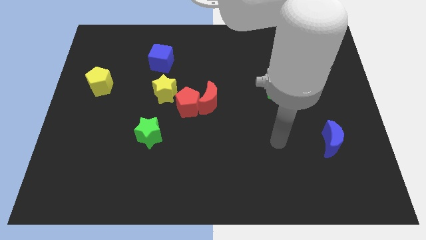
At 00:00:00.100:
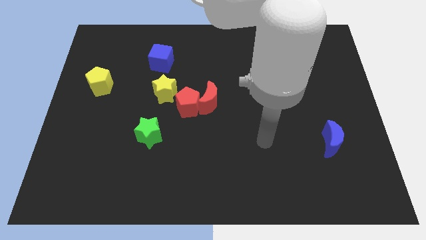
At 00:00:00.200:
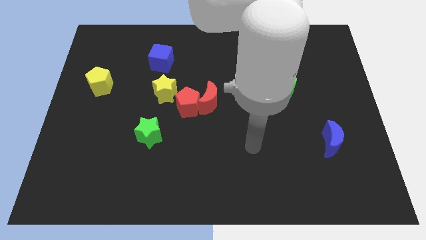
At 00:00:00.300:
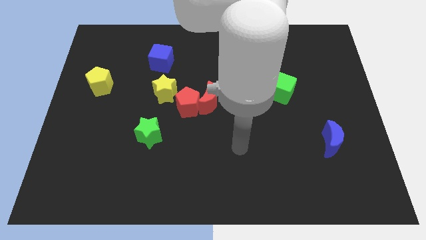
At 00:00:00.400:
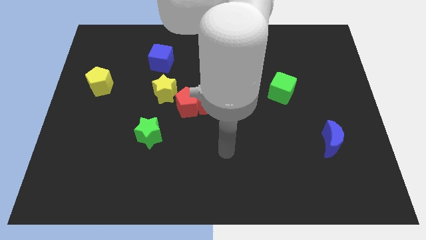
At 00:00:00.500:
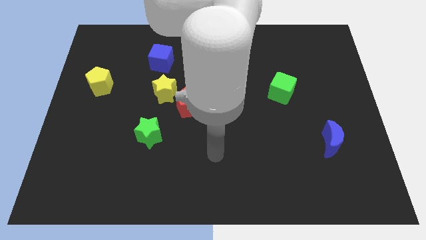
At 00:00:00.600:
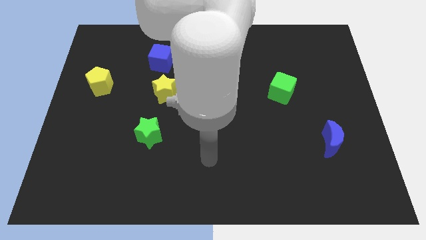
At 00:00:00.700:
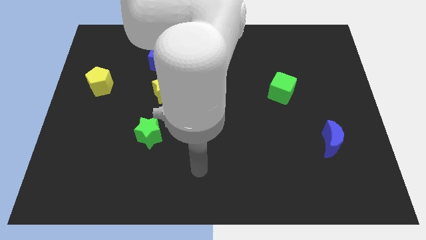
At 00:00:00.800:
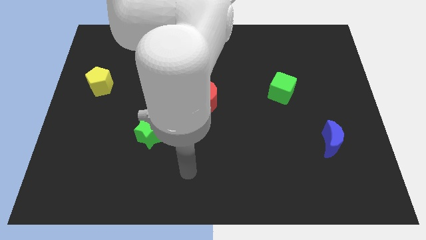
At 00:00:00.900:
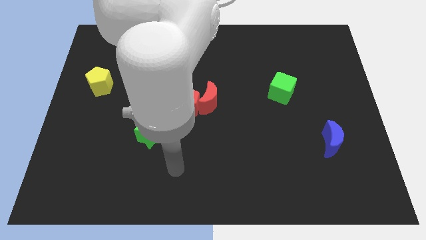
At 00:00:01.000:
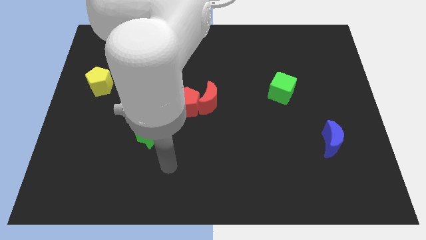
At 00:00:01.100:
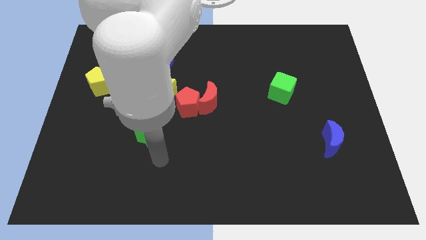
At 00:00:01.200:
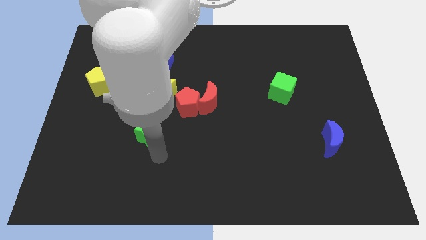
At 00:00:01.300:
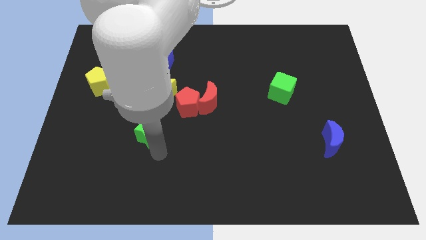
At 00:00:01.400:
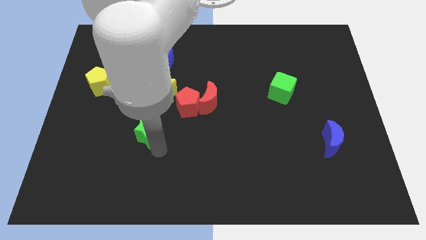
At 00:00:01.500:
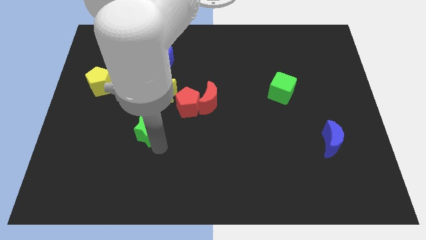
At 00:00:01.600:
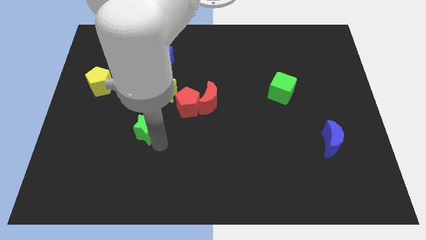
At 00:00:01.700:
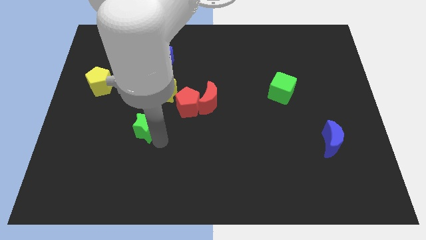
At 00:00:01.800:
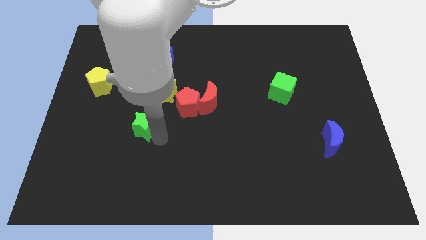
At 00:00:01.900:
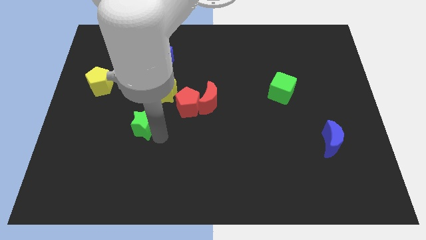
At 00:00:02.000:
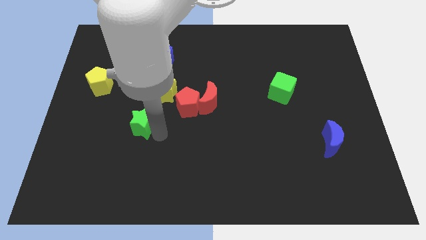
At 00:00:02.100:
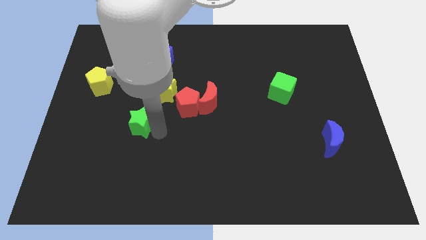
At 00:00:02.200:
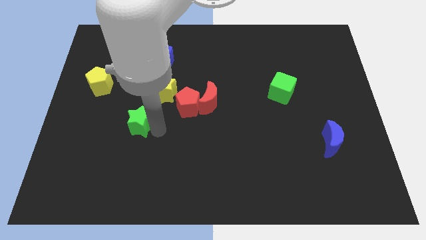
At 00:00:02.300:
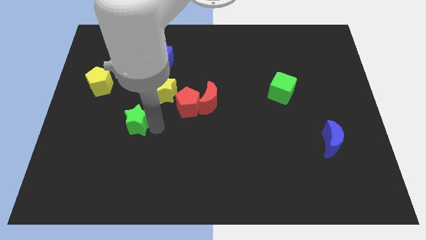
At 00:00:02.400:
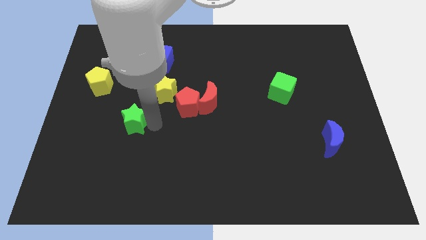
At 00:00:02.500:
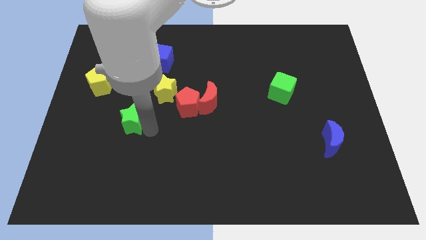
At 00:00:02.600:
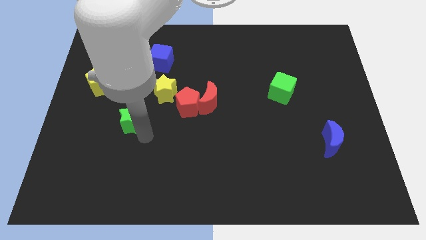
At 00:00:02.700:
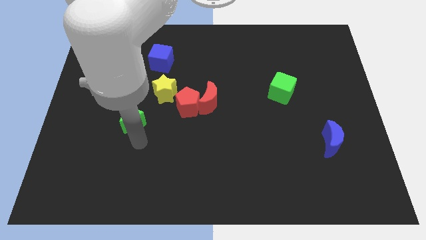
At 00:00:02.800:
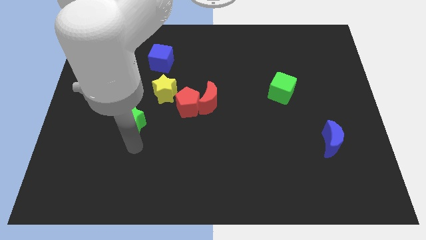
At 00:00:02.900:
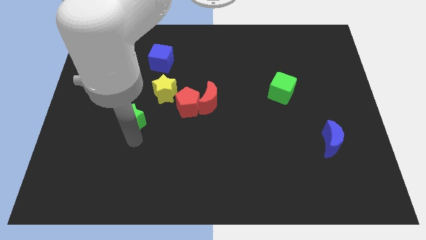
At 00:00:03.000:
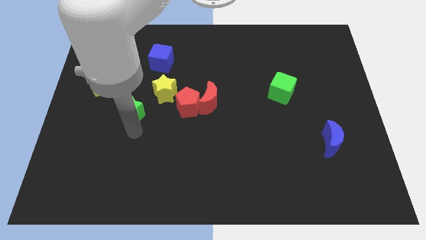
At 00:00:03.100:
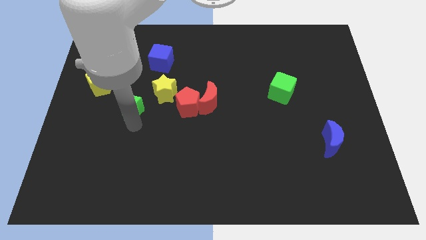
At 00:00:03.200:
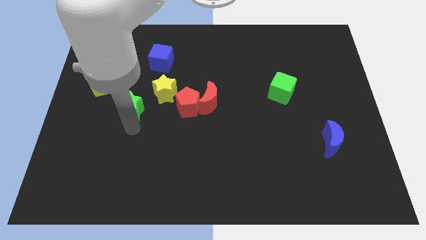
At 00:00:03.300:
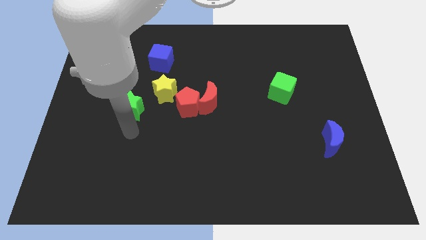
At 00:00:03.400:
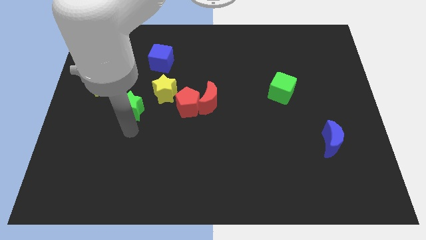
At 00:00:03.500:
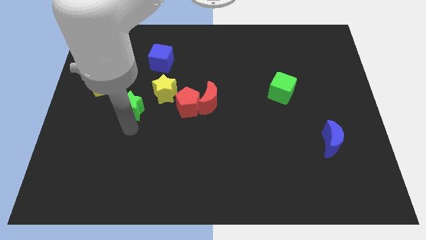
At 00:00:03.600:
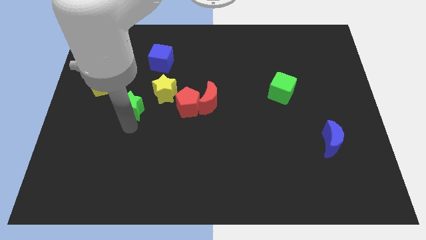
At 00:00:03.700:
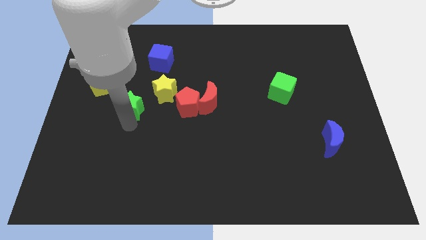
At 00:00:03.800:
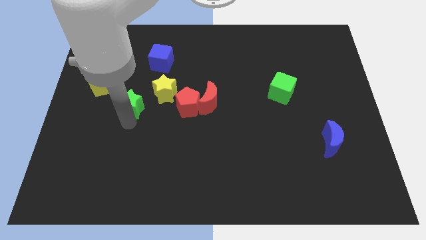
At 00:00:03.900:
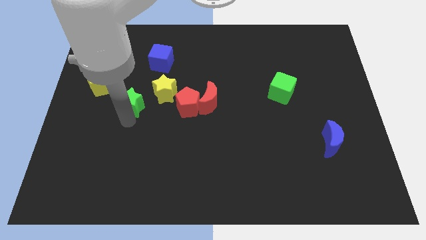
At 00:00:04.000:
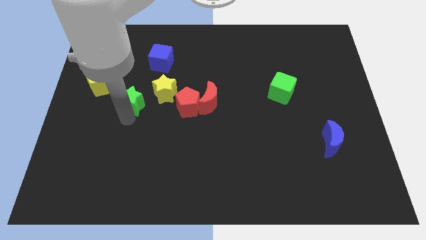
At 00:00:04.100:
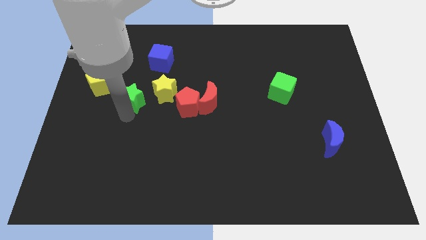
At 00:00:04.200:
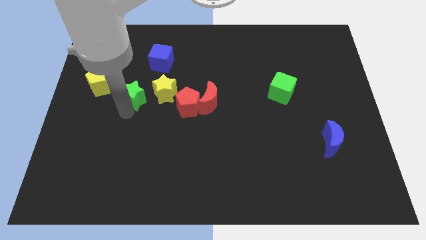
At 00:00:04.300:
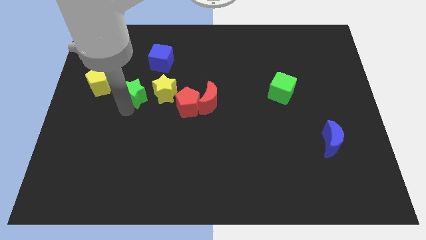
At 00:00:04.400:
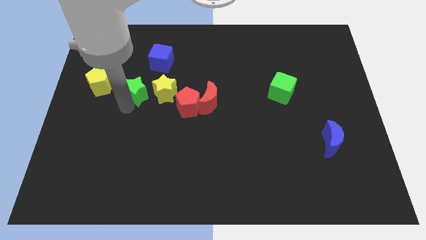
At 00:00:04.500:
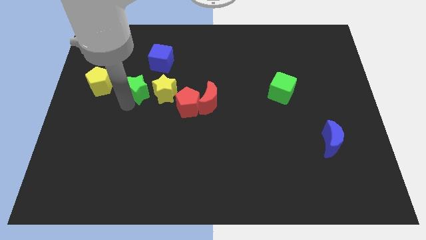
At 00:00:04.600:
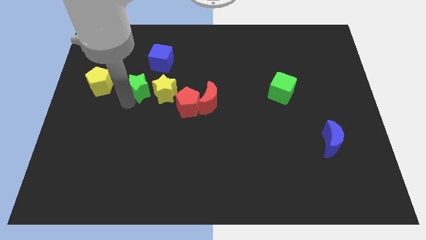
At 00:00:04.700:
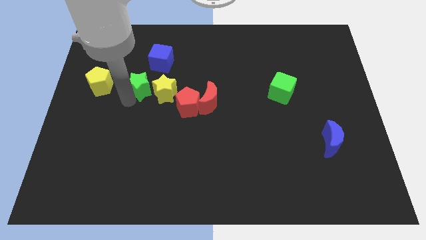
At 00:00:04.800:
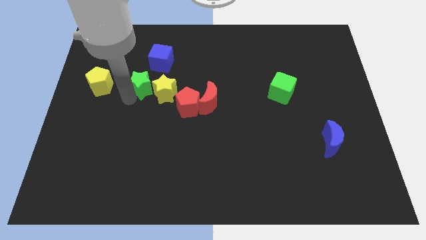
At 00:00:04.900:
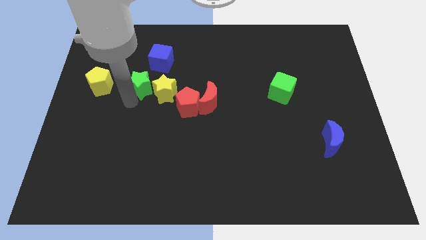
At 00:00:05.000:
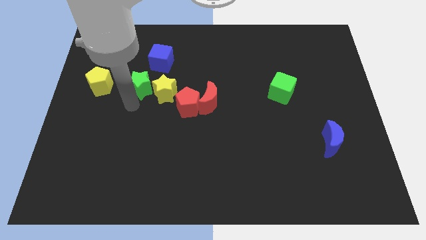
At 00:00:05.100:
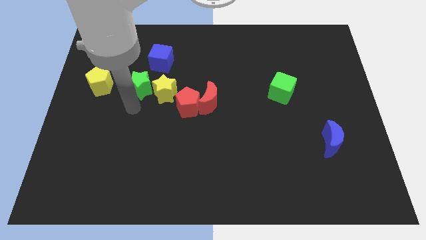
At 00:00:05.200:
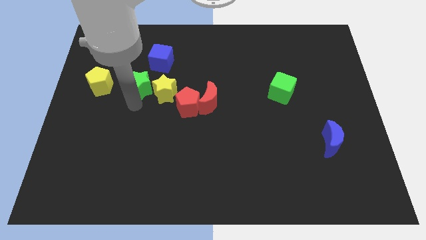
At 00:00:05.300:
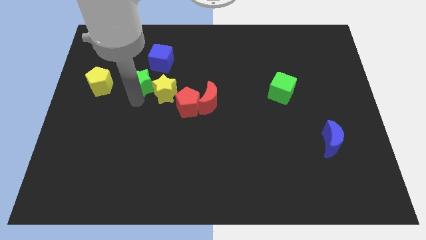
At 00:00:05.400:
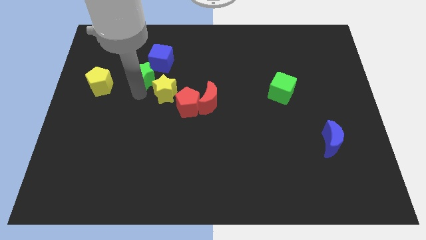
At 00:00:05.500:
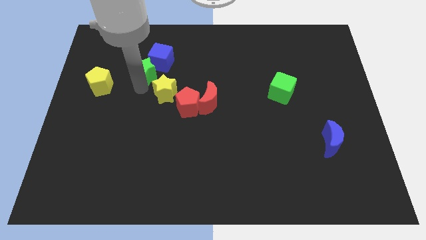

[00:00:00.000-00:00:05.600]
move the green star to the blue cube
